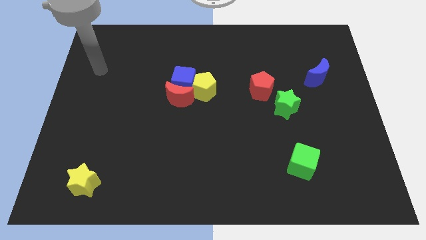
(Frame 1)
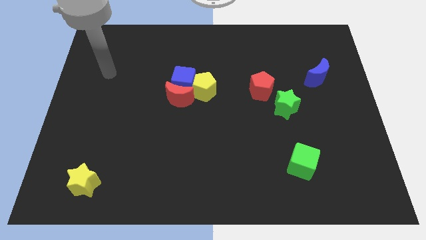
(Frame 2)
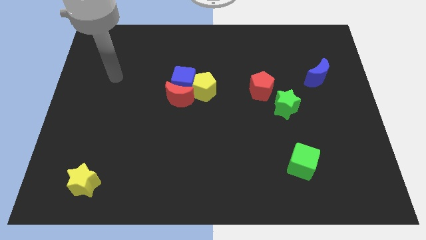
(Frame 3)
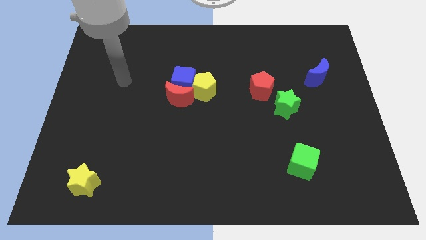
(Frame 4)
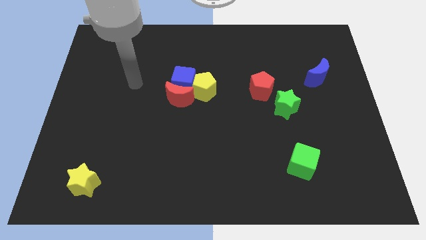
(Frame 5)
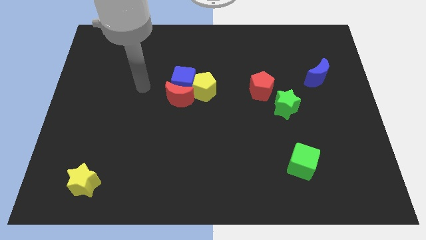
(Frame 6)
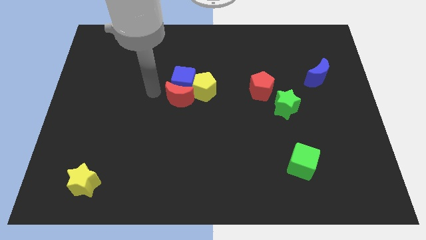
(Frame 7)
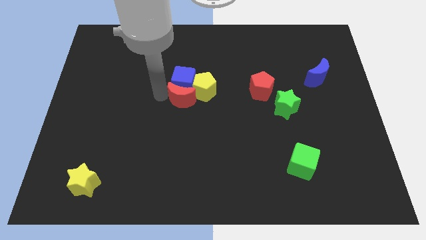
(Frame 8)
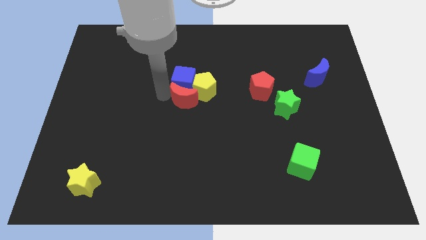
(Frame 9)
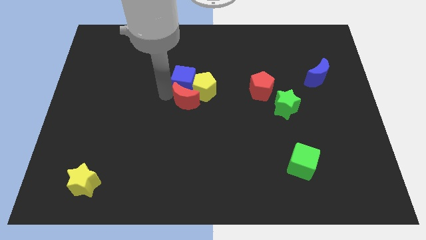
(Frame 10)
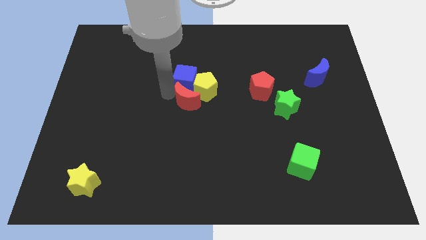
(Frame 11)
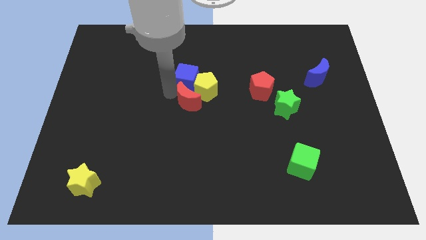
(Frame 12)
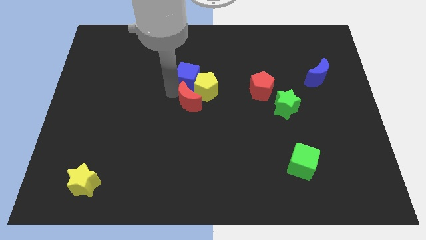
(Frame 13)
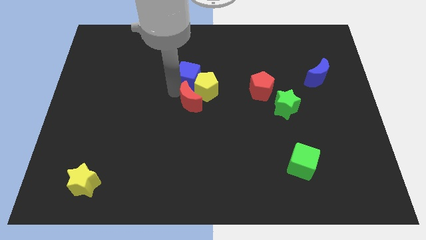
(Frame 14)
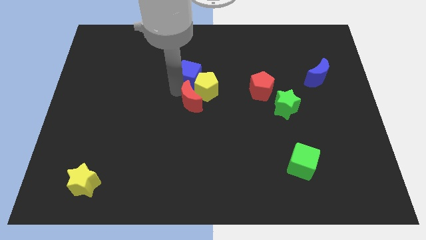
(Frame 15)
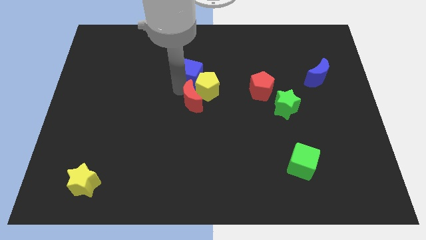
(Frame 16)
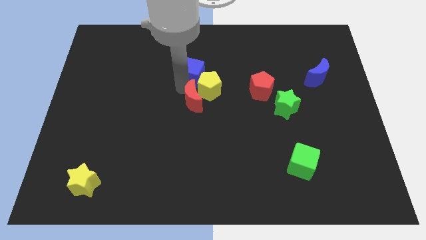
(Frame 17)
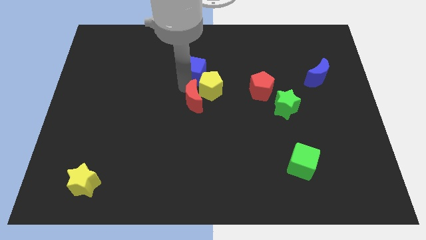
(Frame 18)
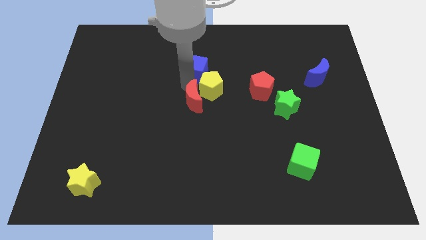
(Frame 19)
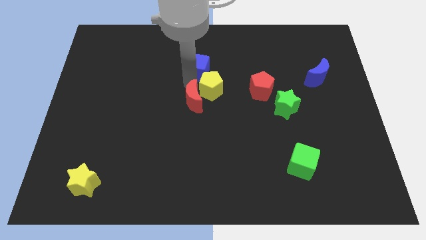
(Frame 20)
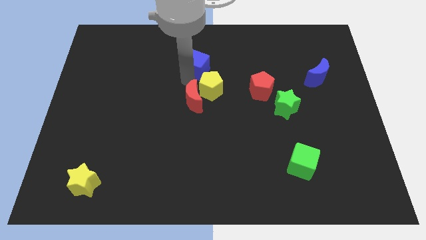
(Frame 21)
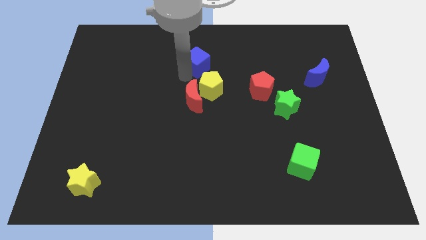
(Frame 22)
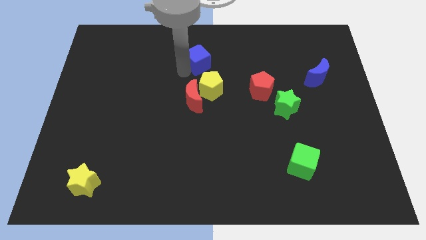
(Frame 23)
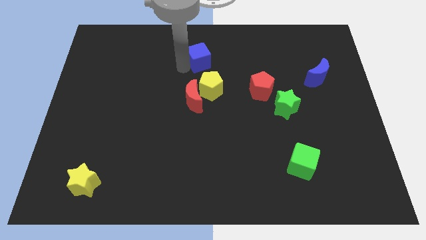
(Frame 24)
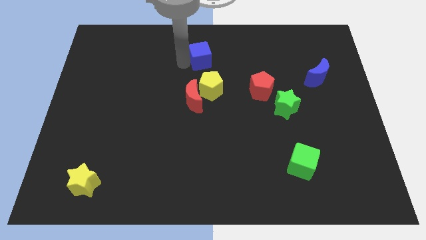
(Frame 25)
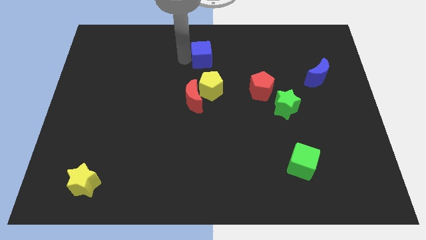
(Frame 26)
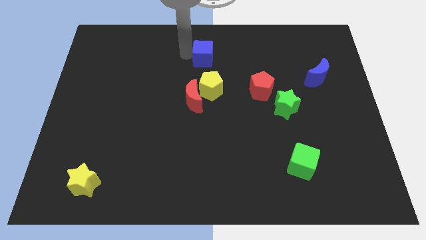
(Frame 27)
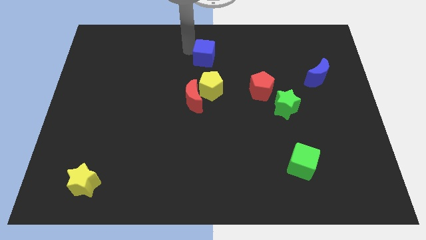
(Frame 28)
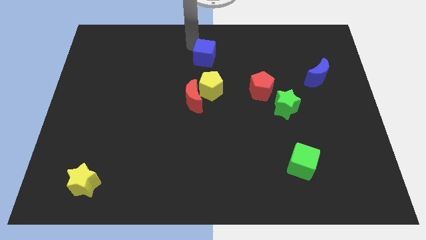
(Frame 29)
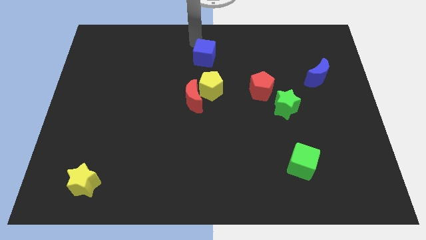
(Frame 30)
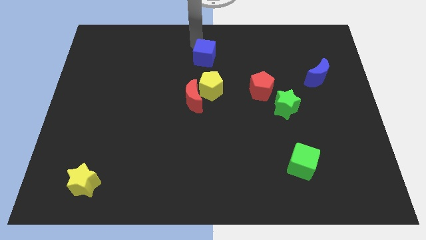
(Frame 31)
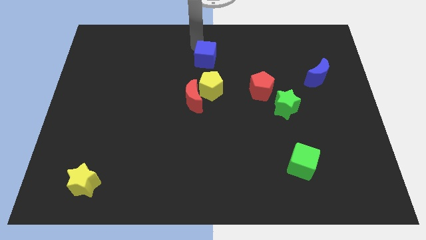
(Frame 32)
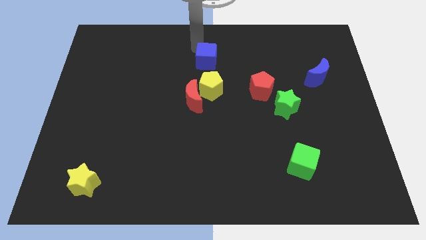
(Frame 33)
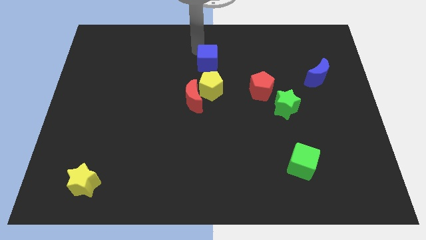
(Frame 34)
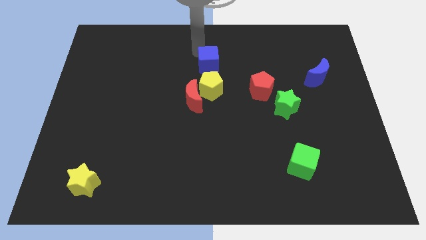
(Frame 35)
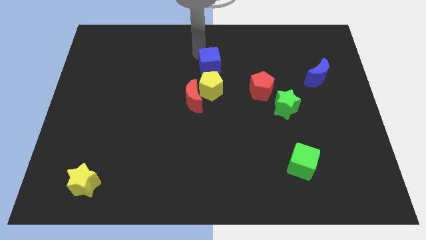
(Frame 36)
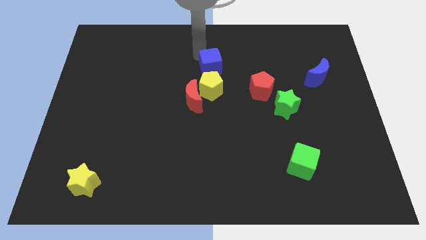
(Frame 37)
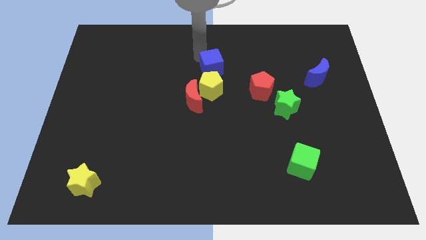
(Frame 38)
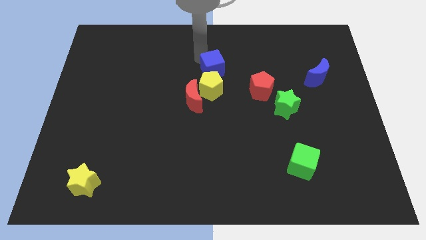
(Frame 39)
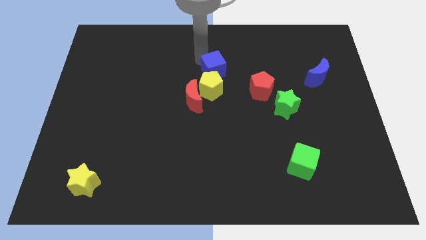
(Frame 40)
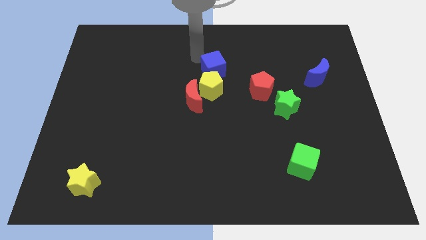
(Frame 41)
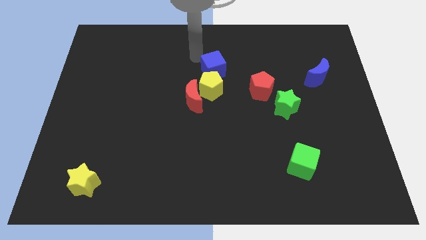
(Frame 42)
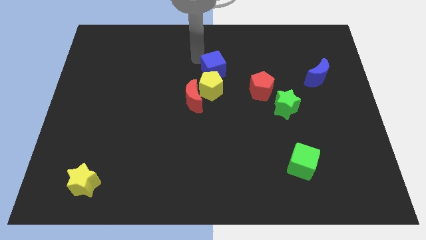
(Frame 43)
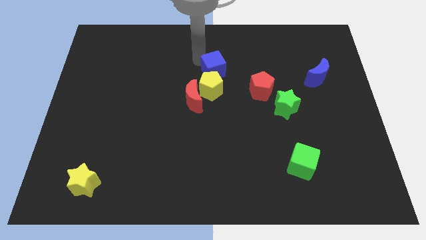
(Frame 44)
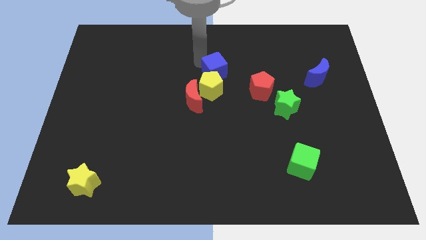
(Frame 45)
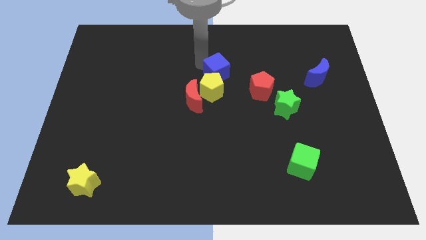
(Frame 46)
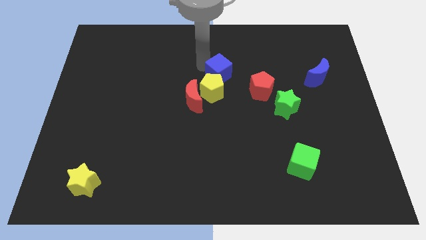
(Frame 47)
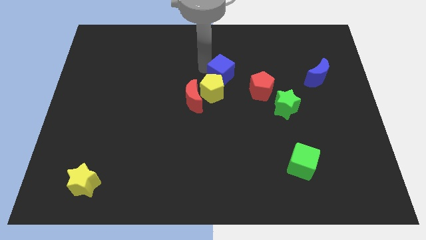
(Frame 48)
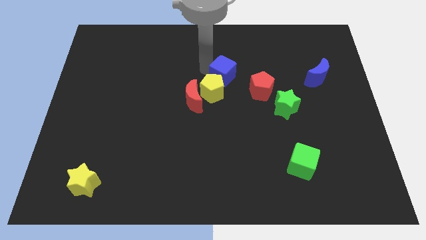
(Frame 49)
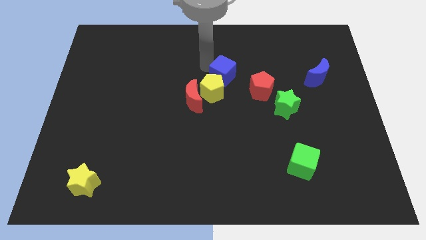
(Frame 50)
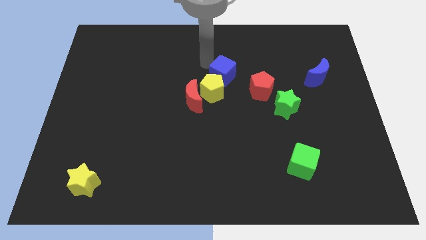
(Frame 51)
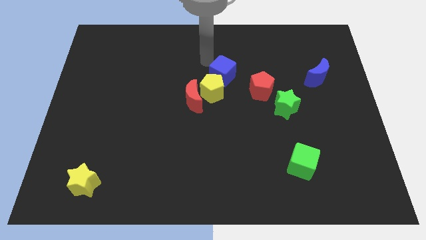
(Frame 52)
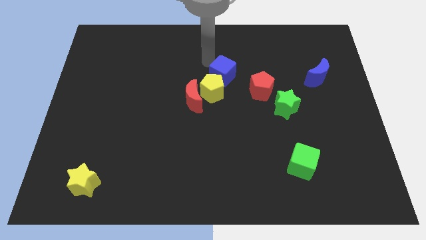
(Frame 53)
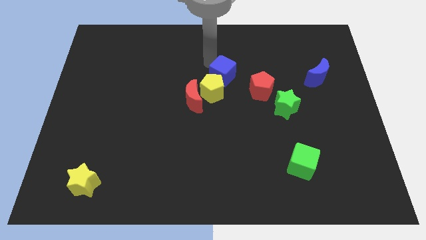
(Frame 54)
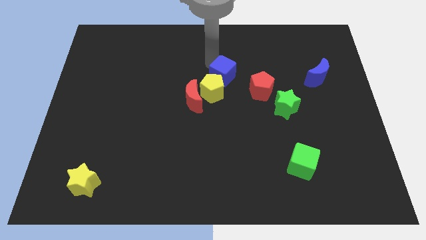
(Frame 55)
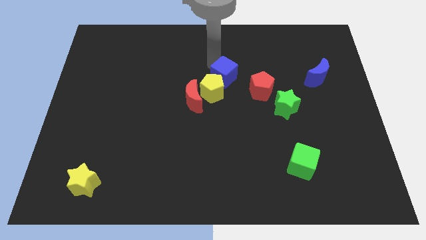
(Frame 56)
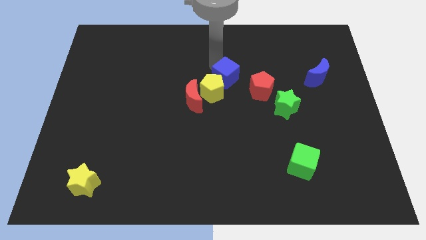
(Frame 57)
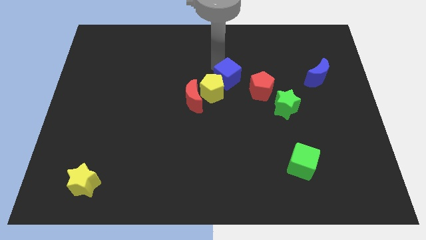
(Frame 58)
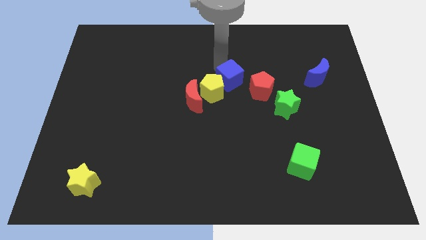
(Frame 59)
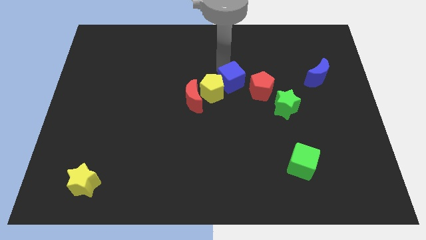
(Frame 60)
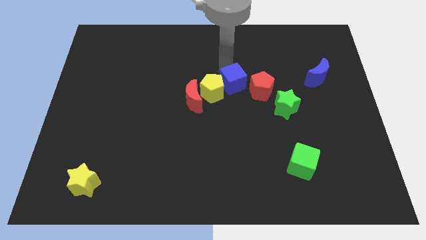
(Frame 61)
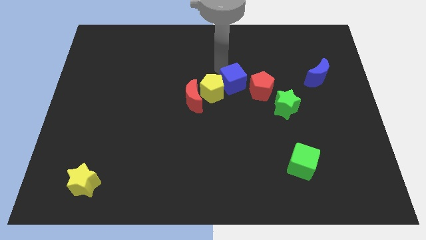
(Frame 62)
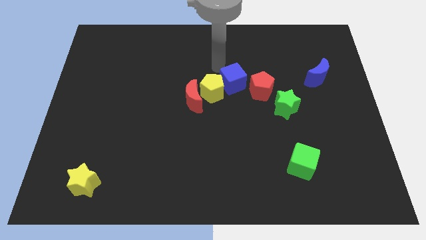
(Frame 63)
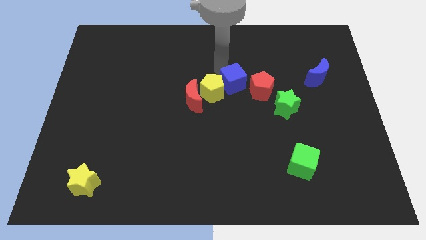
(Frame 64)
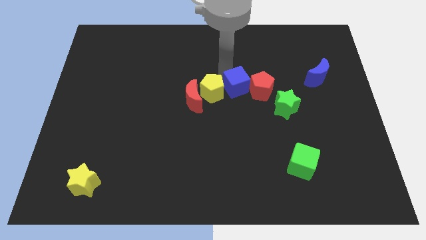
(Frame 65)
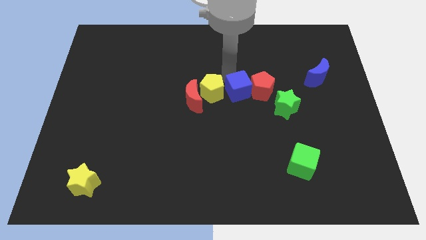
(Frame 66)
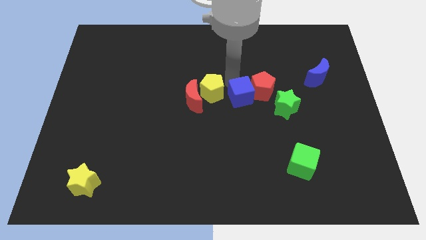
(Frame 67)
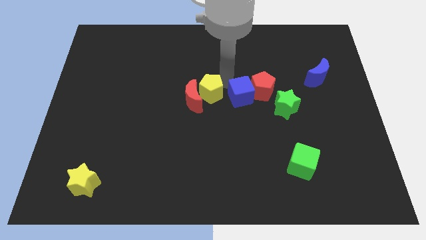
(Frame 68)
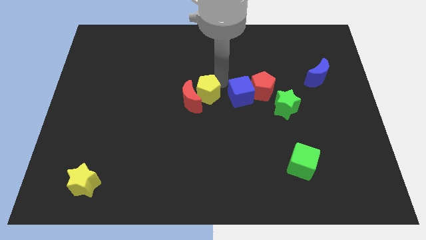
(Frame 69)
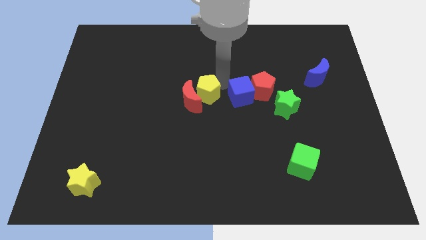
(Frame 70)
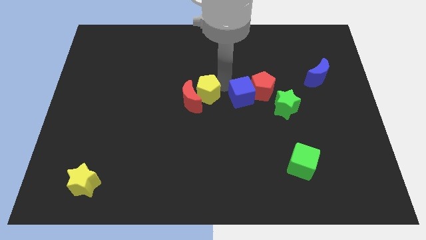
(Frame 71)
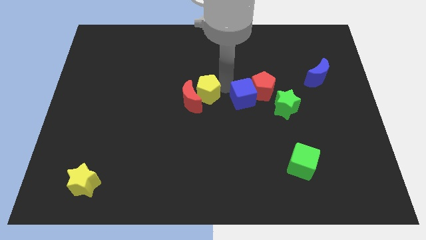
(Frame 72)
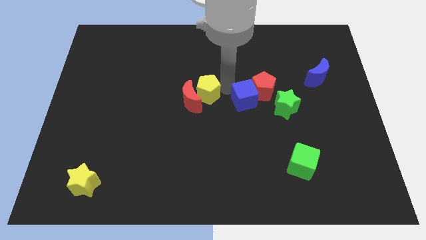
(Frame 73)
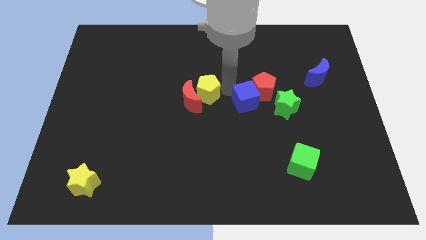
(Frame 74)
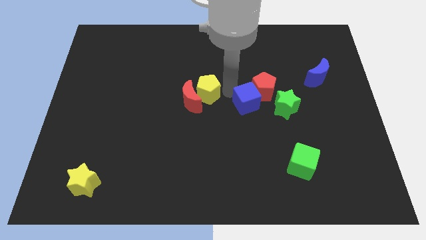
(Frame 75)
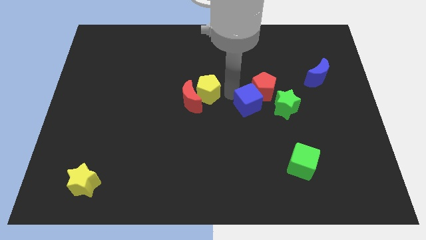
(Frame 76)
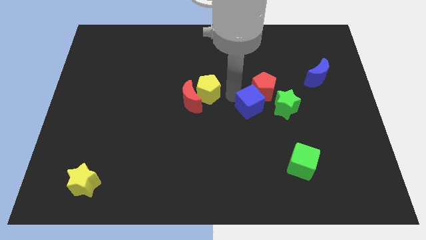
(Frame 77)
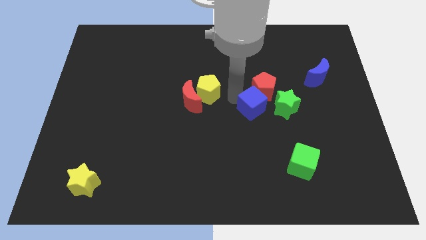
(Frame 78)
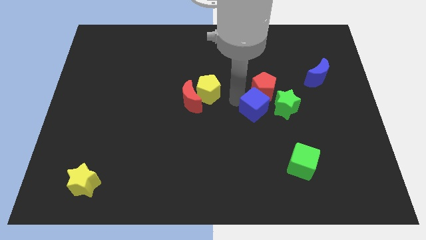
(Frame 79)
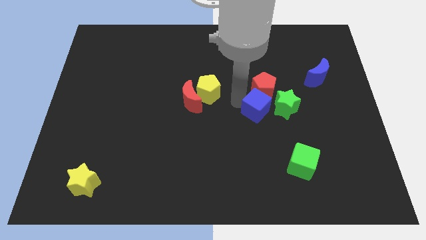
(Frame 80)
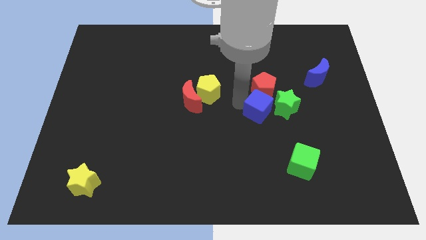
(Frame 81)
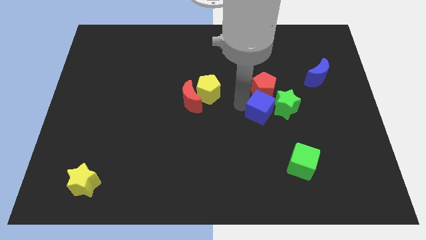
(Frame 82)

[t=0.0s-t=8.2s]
move the blue cube close to the green star
